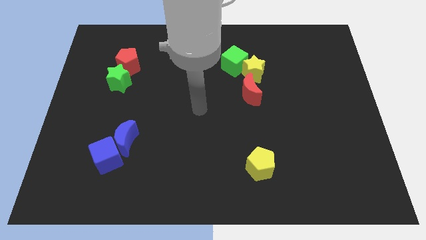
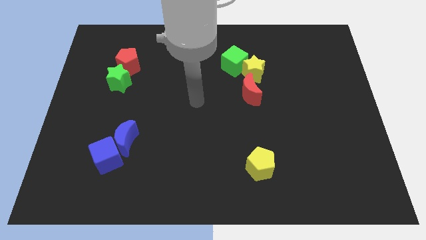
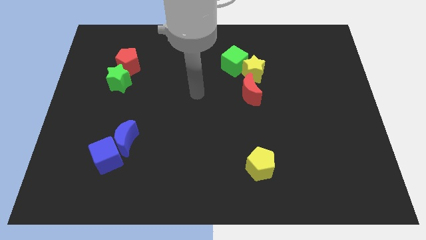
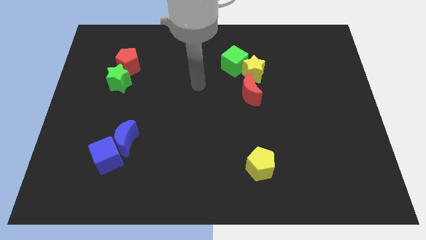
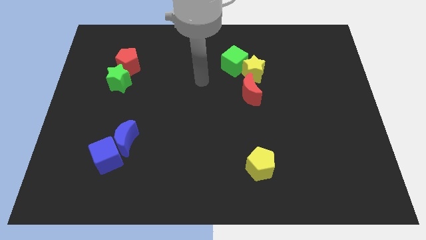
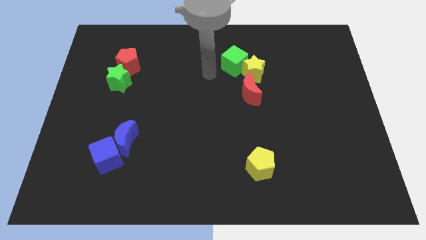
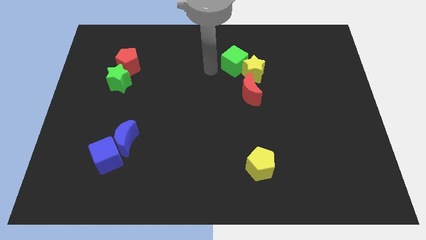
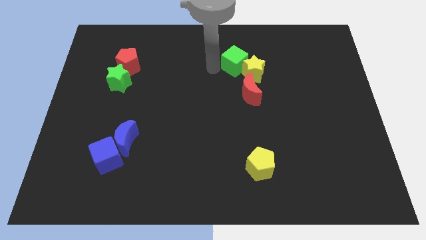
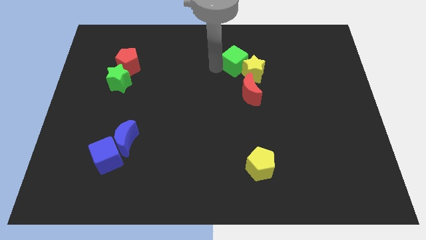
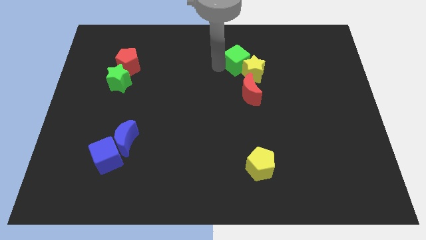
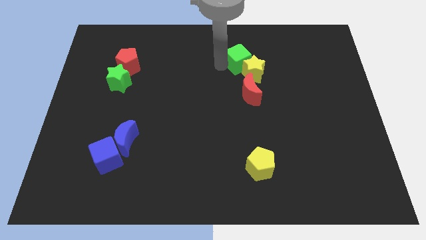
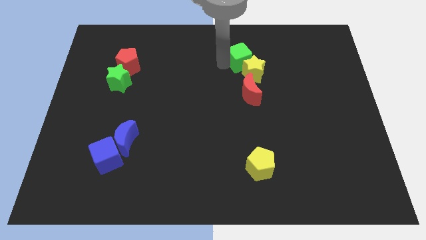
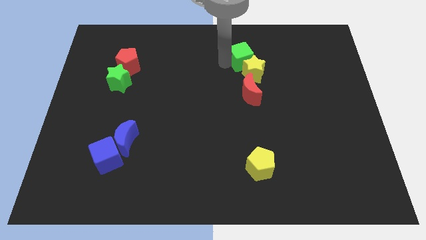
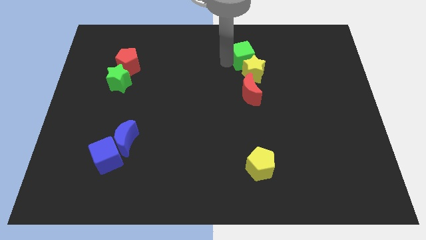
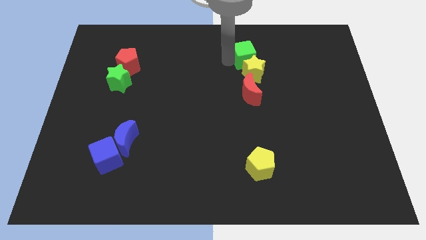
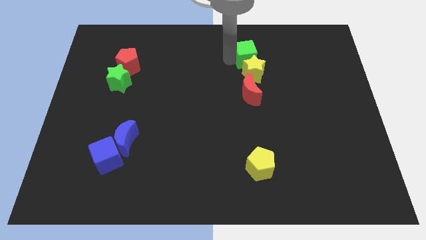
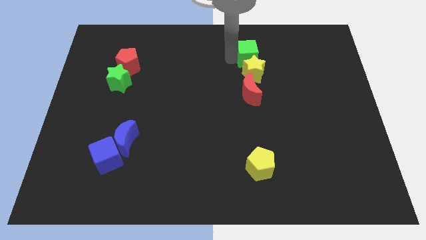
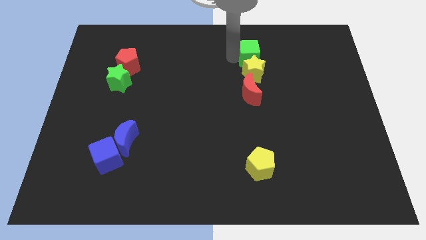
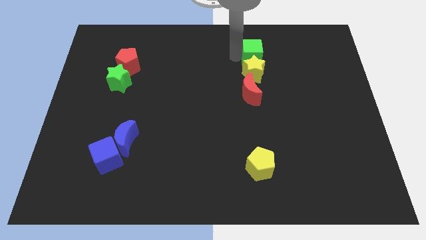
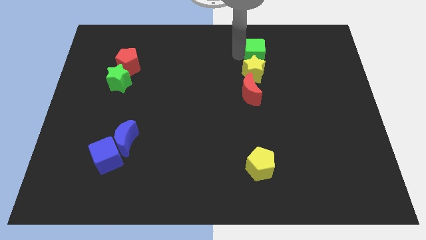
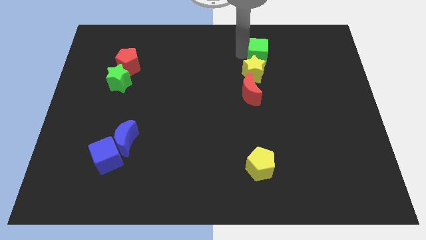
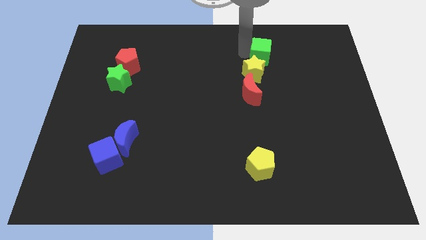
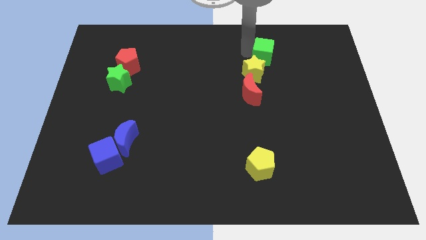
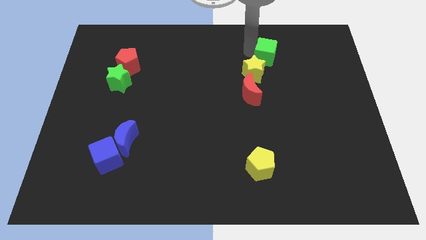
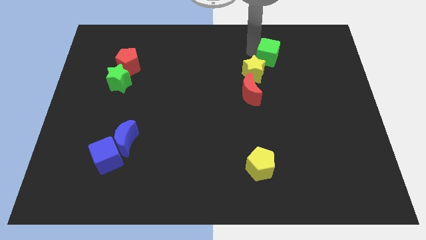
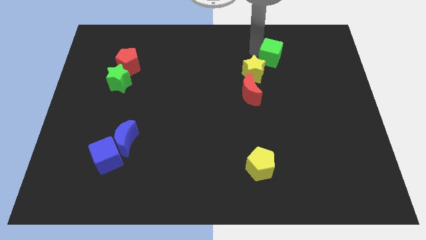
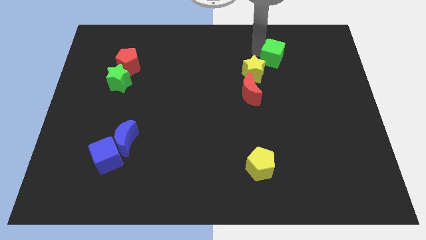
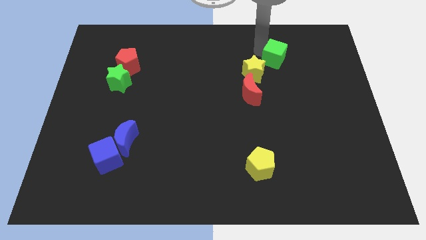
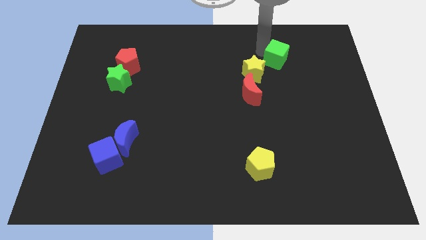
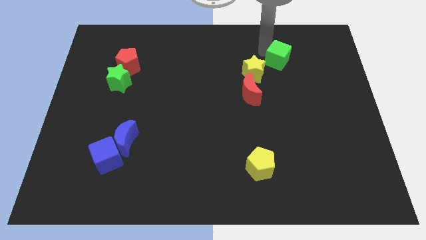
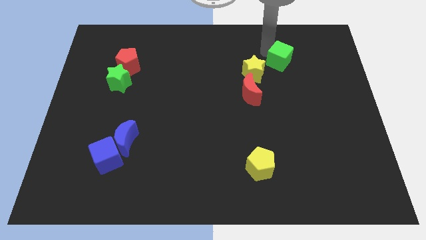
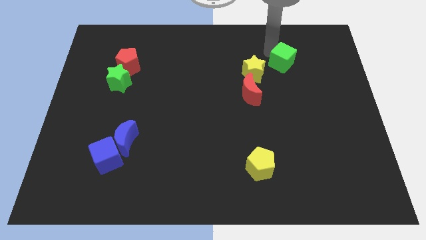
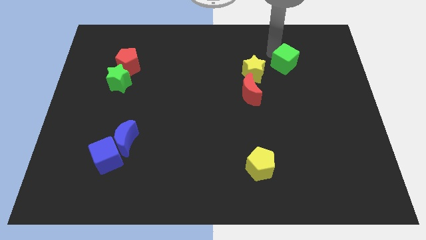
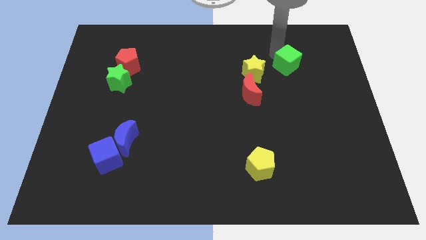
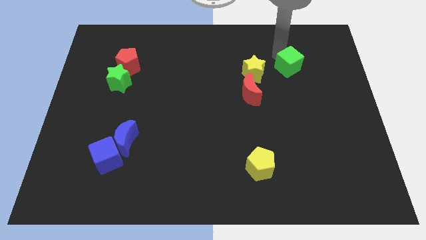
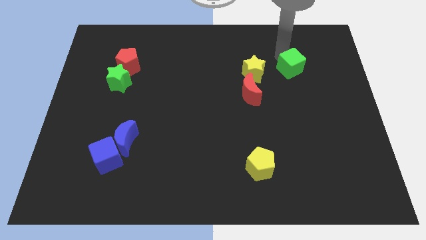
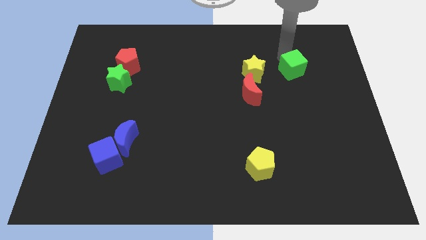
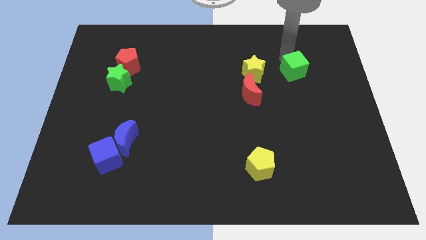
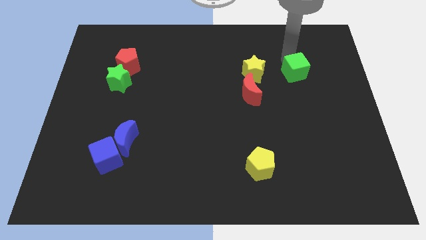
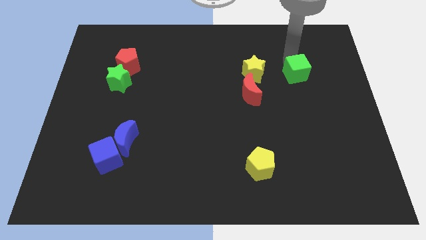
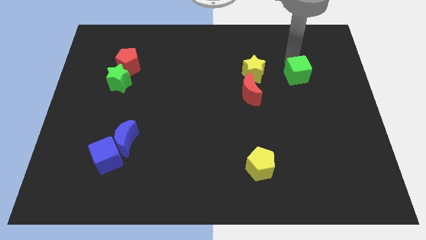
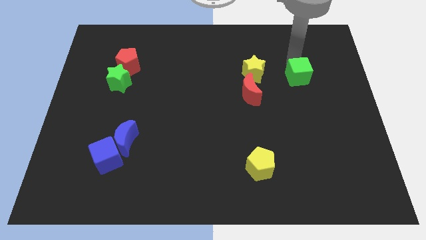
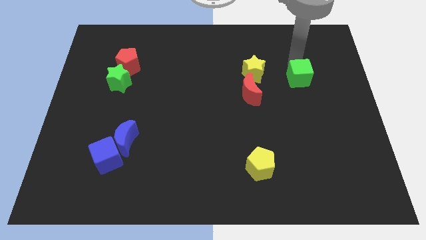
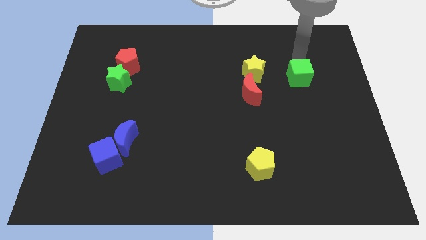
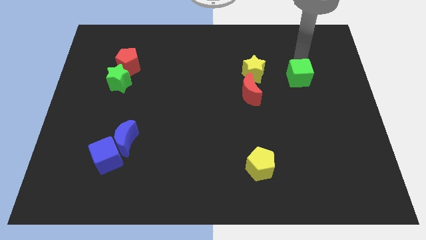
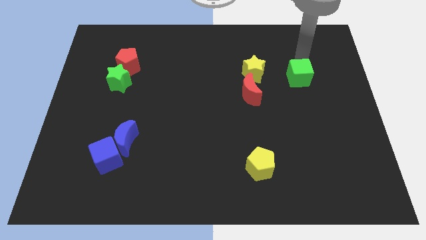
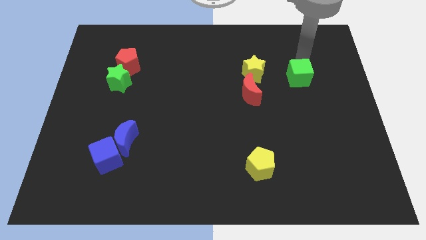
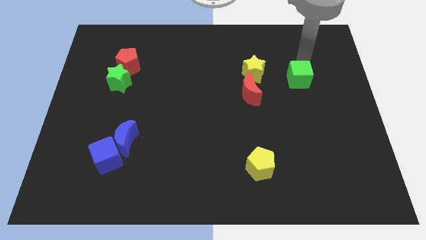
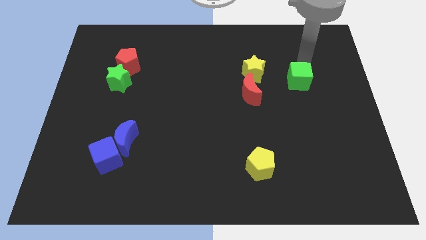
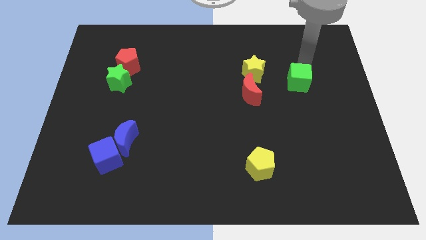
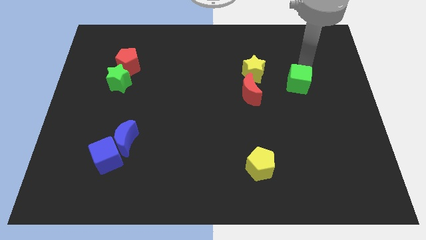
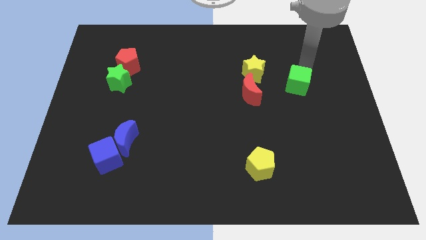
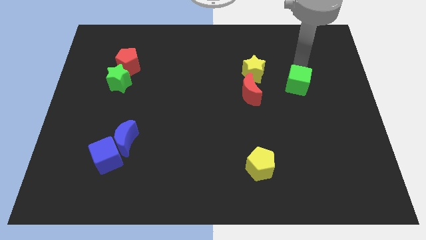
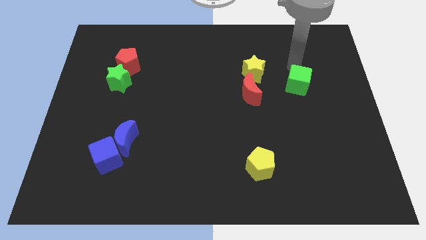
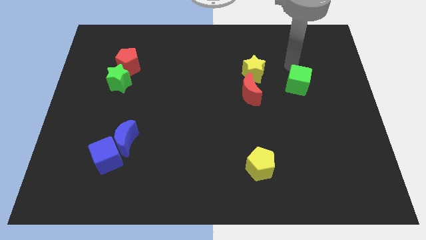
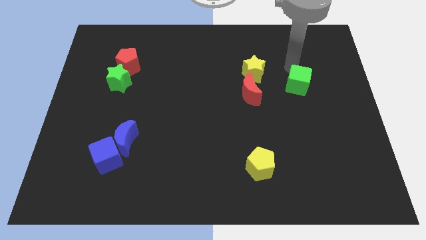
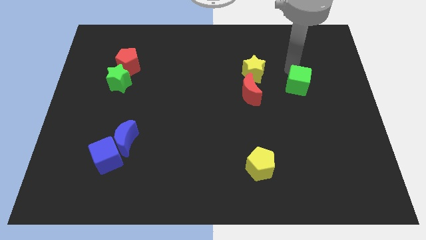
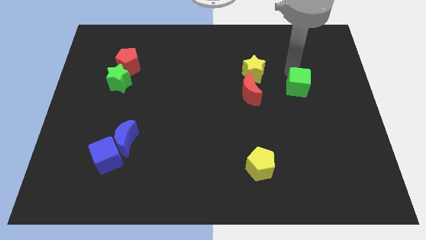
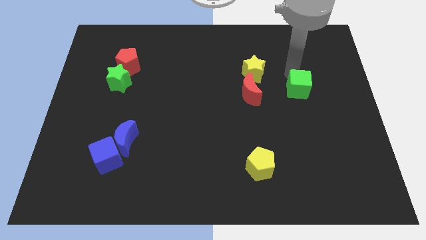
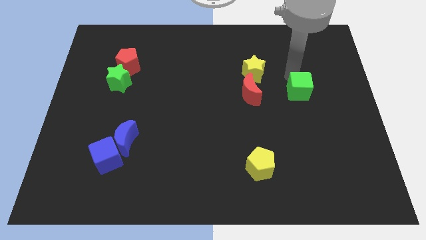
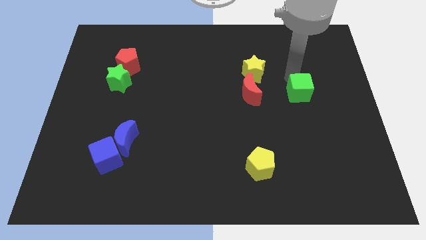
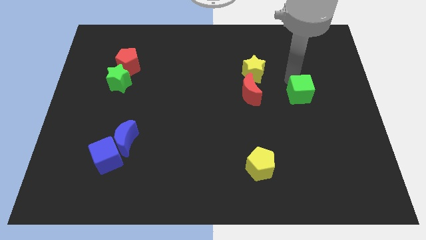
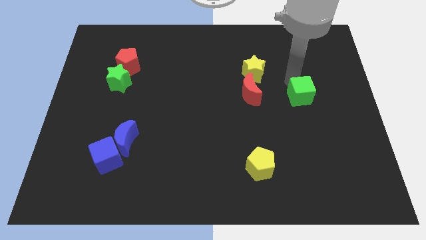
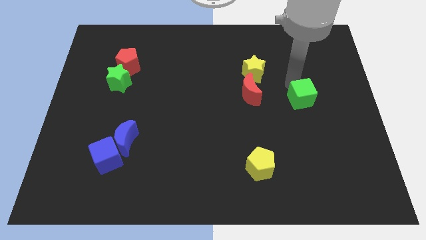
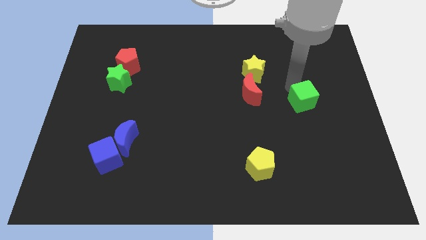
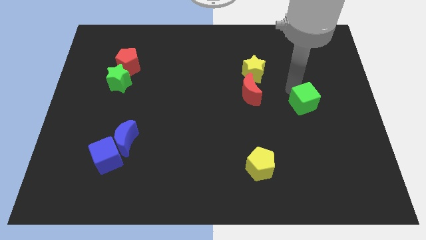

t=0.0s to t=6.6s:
slide the green cube down and then right

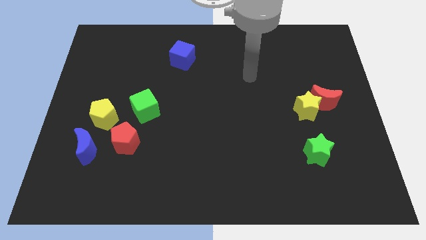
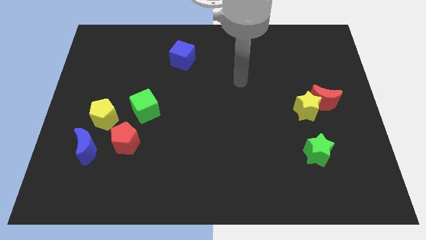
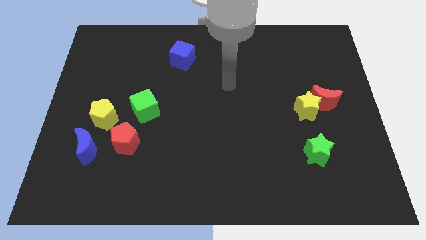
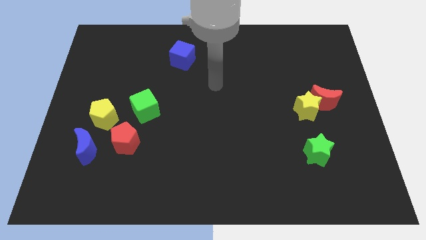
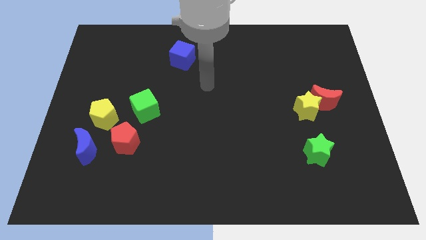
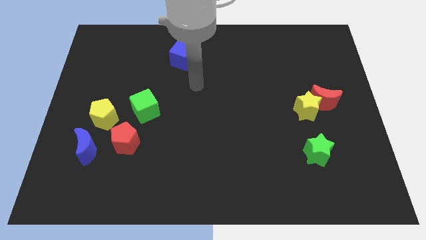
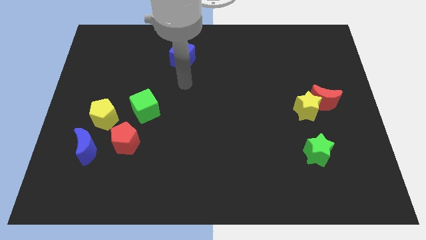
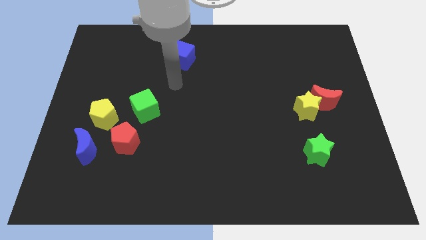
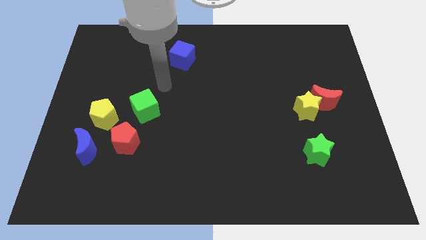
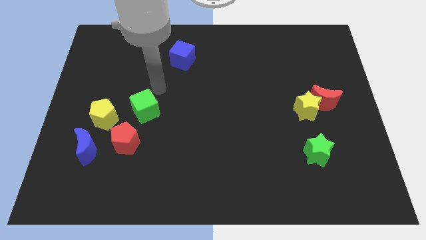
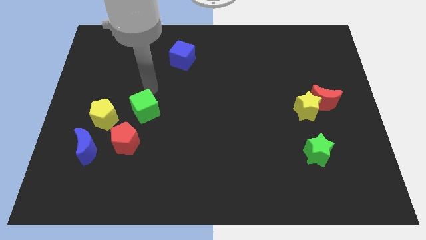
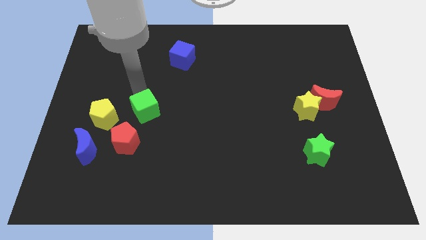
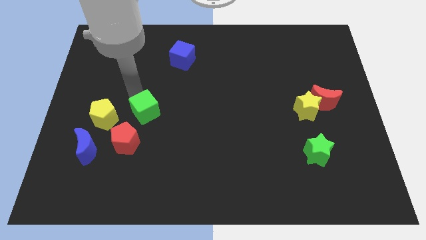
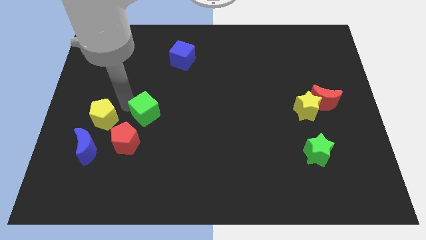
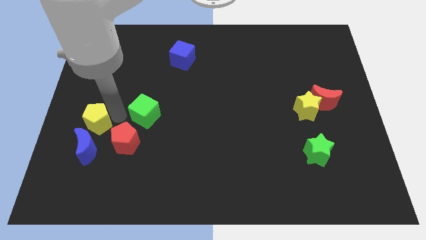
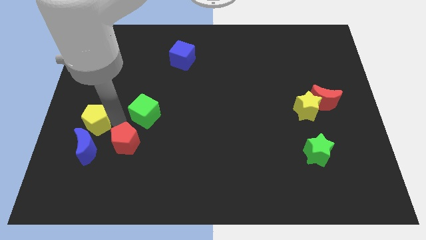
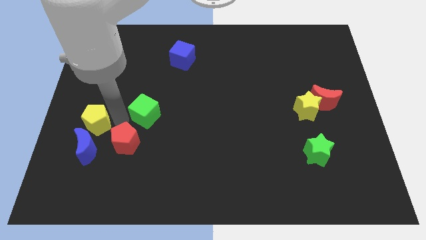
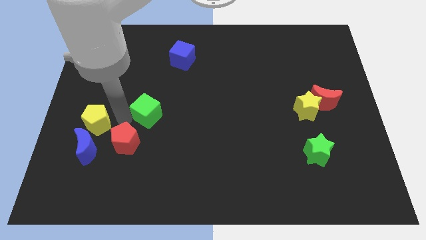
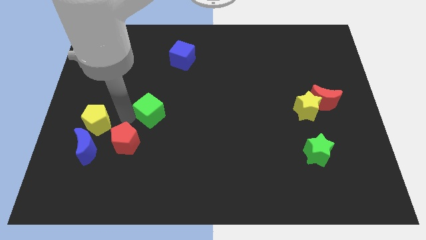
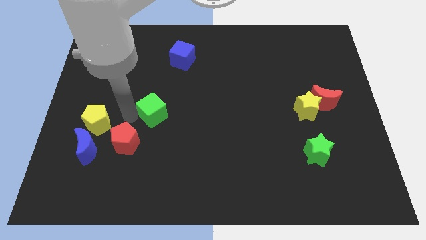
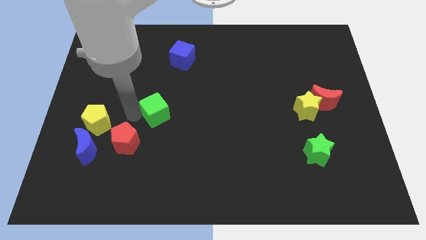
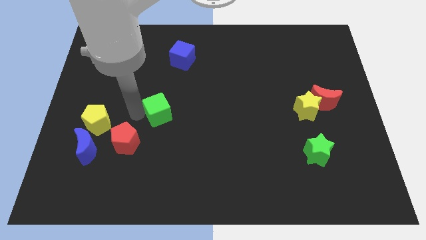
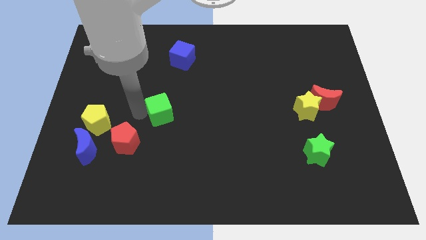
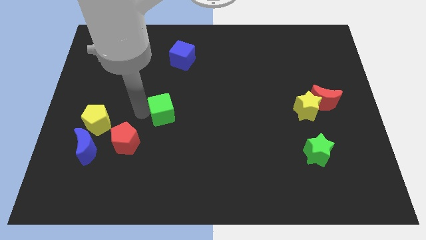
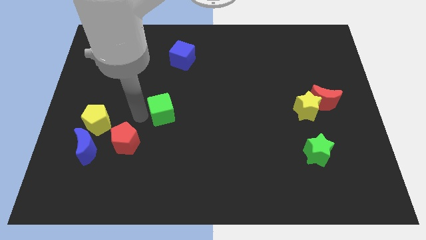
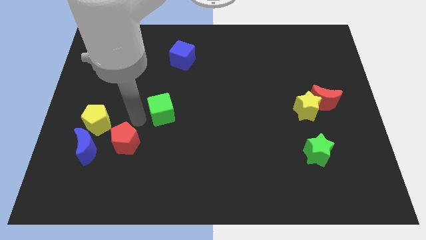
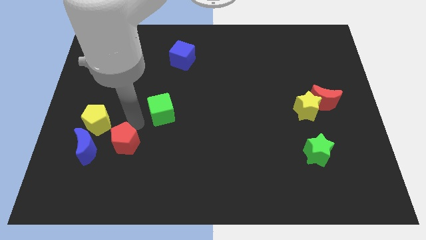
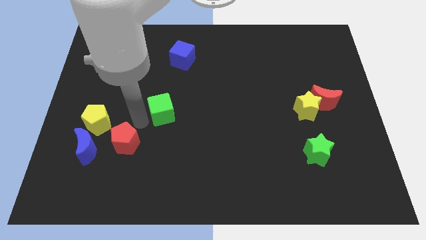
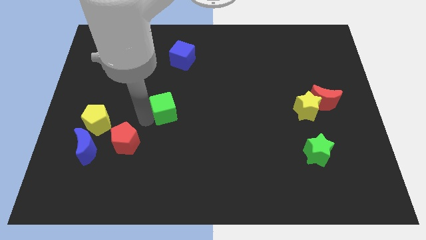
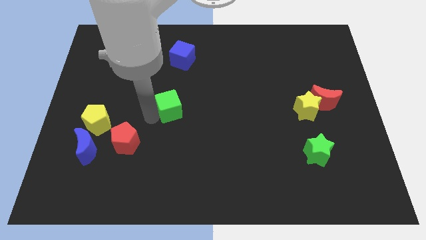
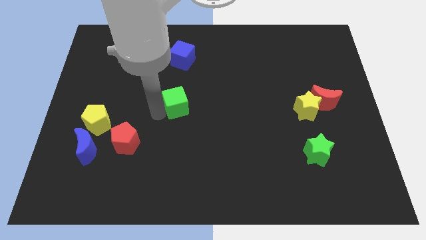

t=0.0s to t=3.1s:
slide the green cube right somewhat
